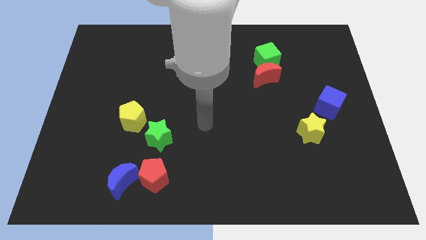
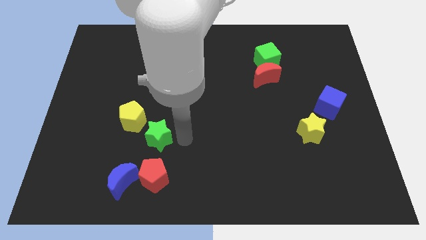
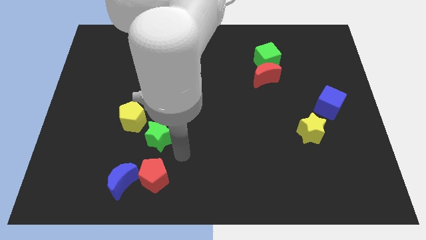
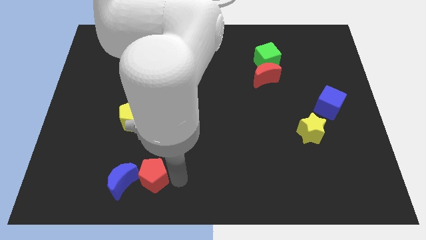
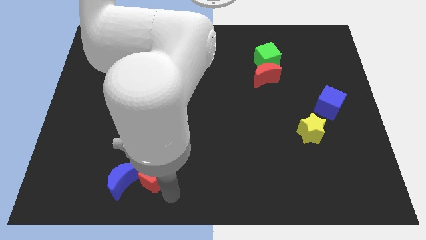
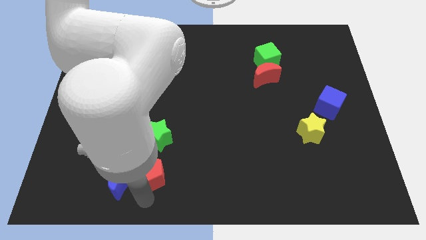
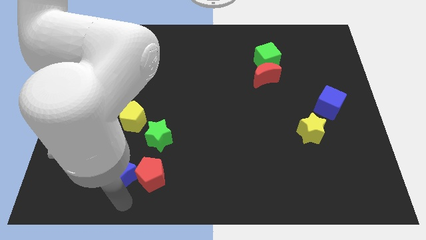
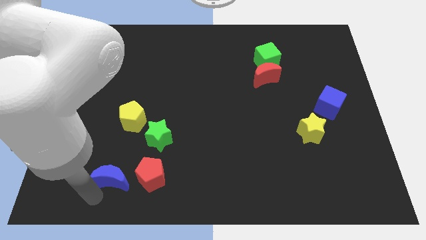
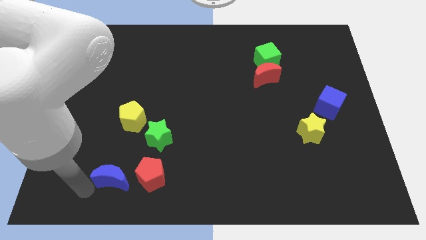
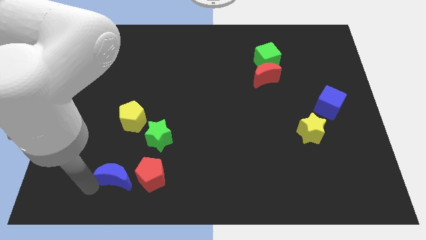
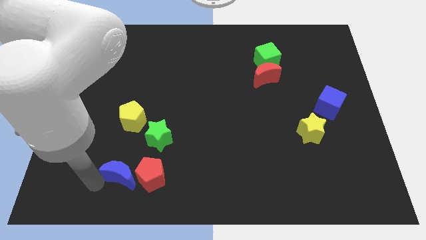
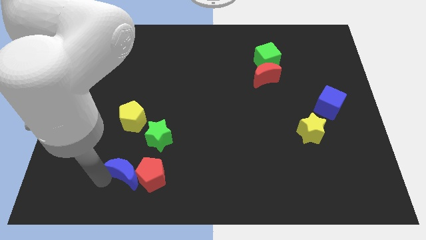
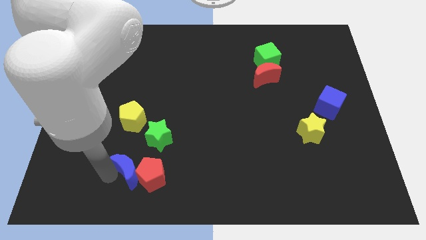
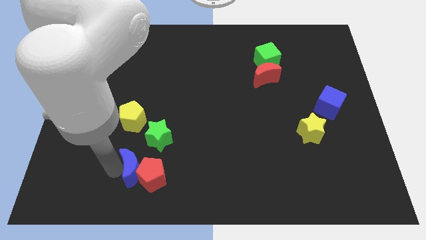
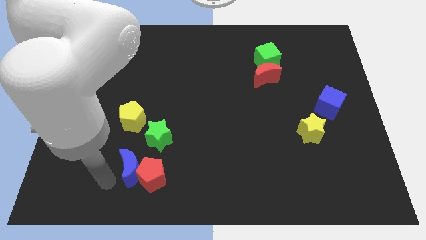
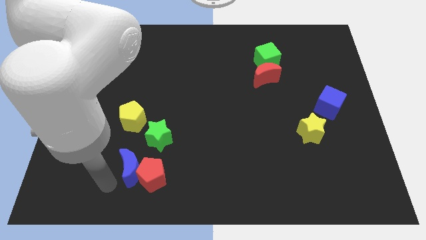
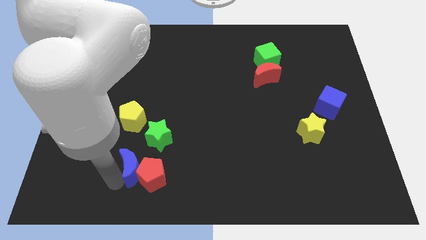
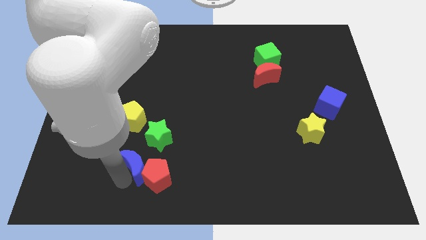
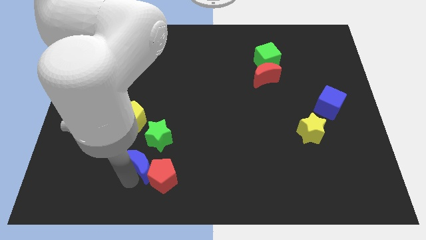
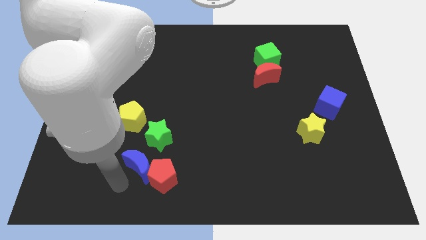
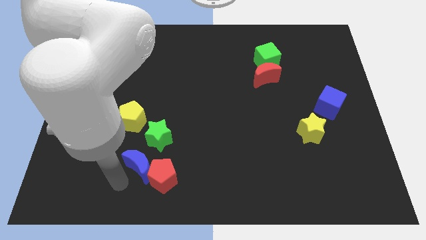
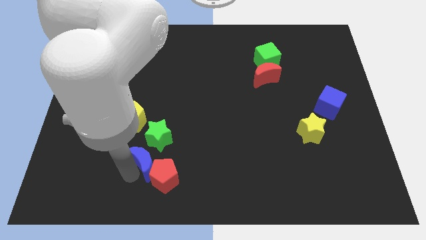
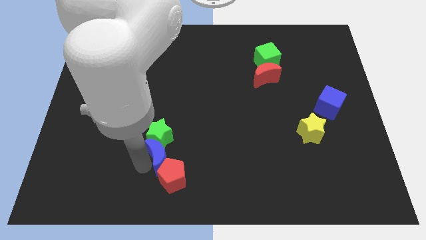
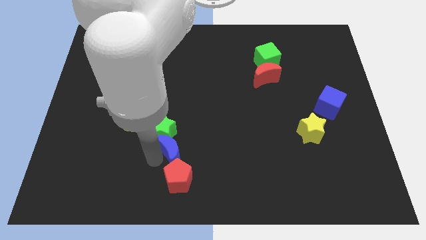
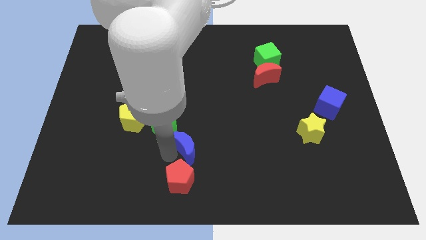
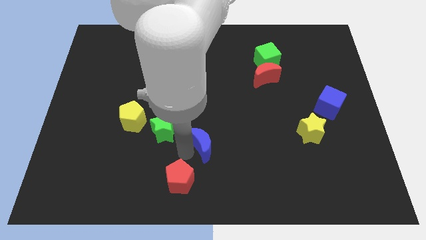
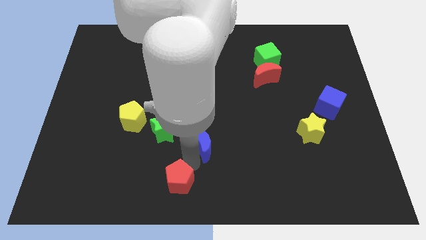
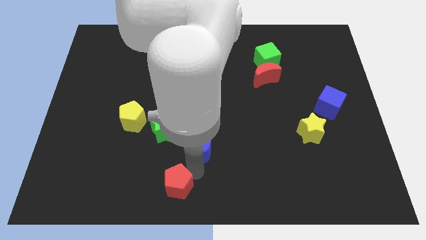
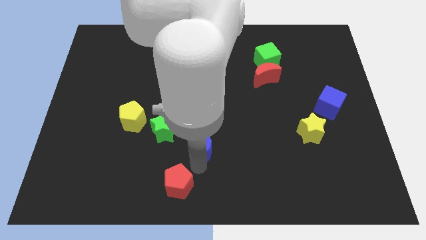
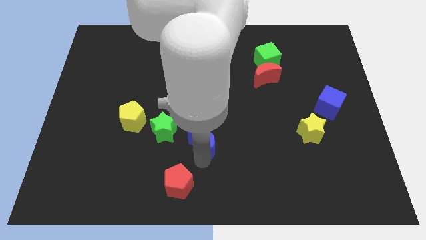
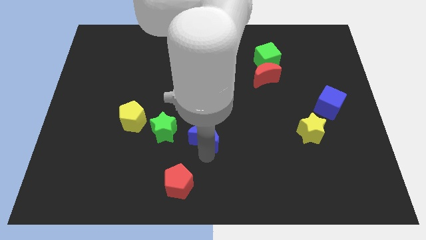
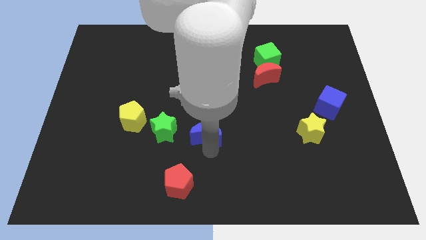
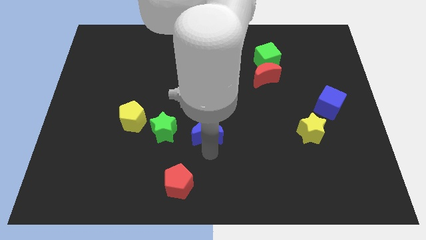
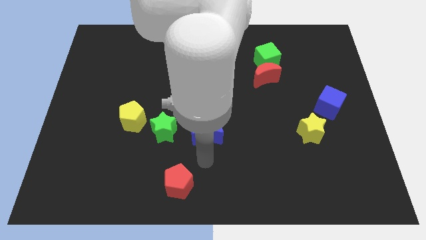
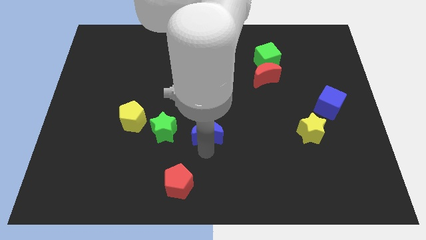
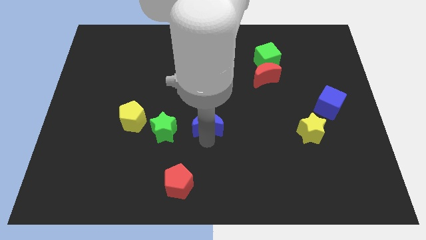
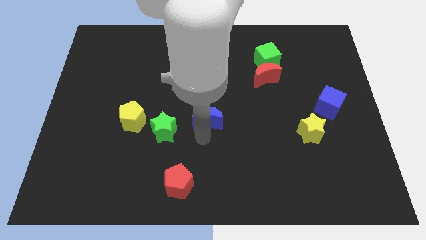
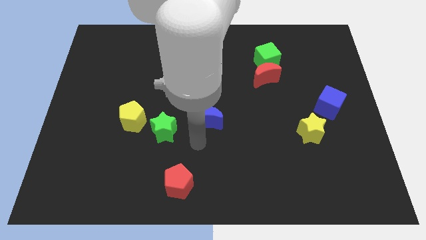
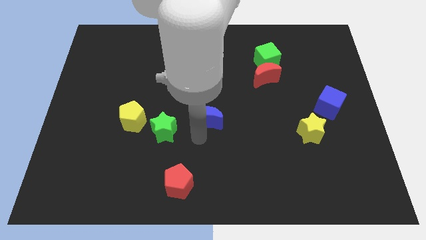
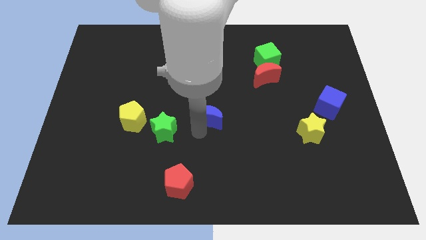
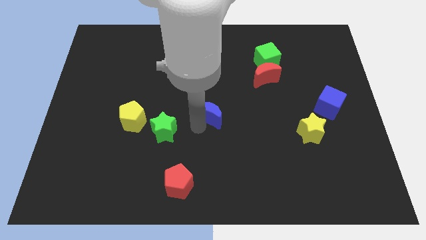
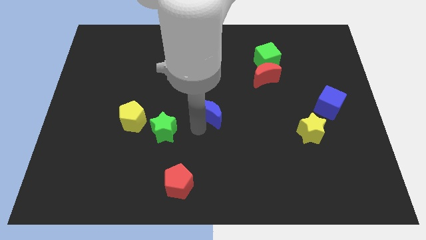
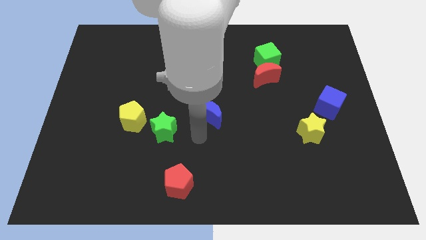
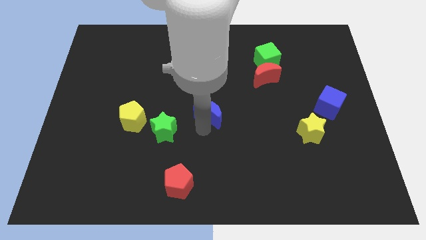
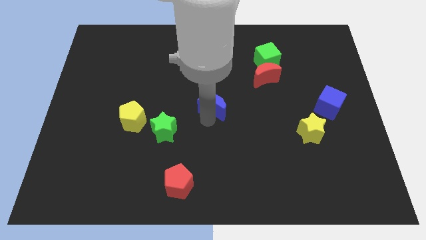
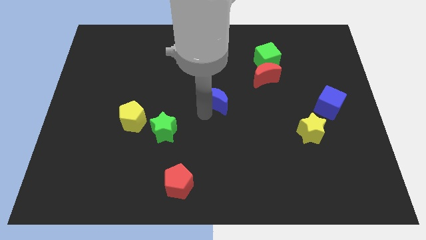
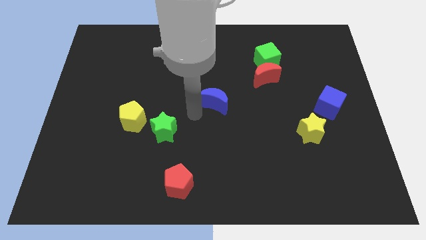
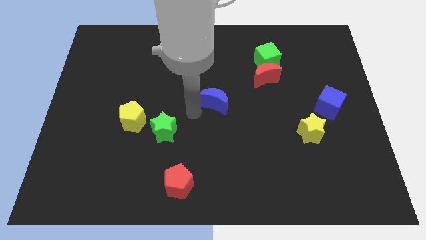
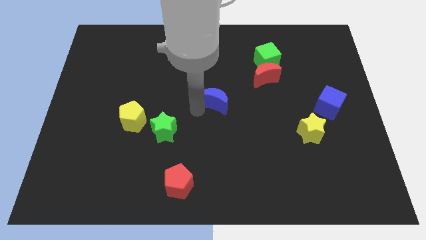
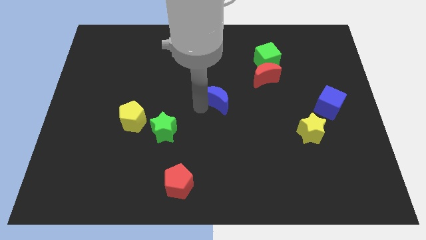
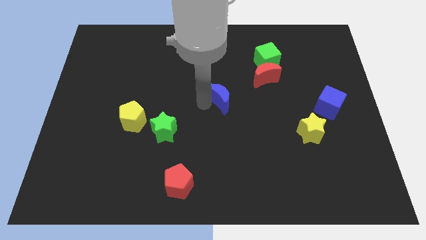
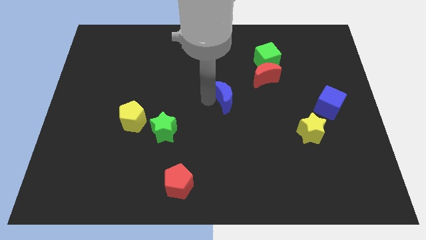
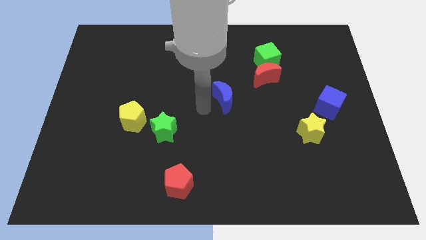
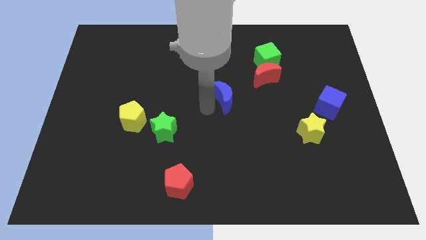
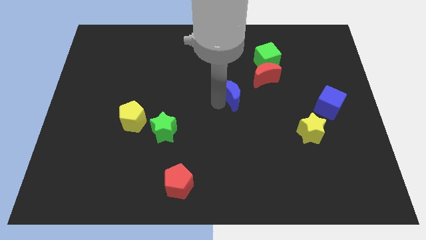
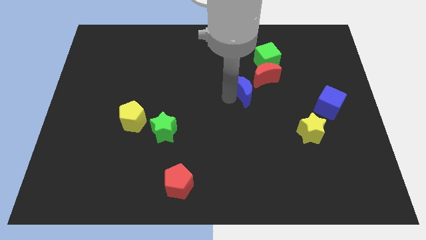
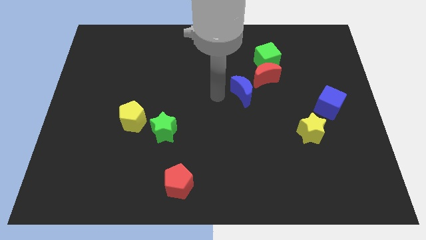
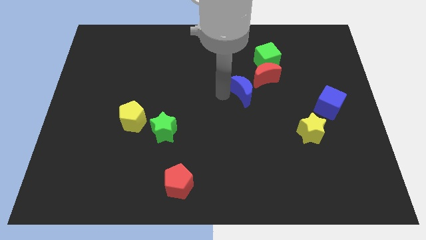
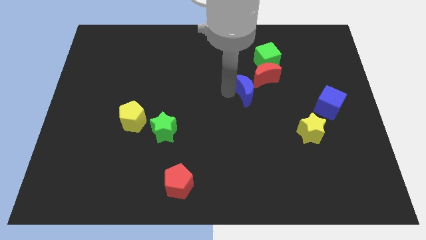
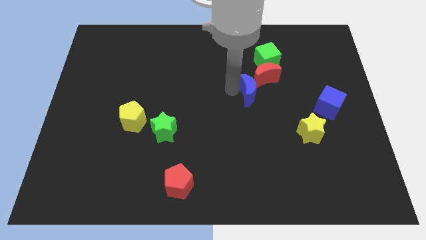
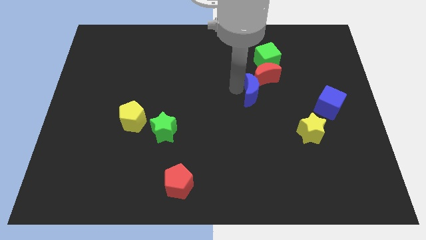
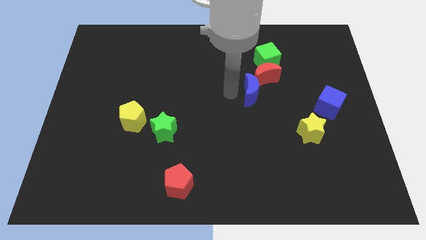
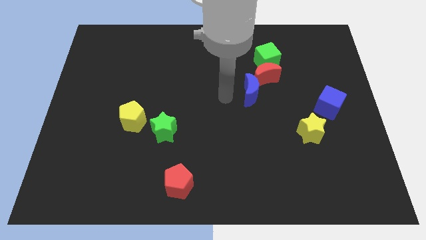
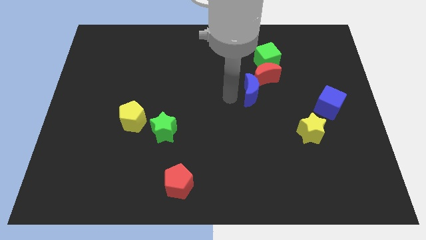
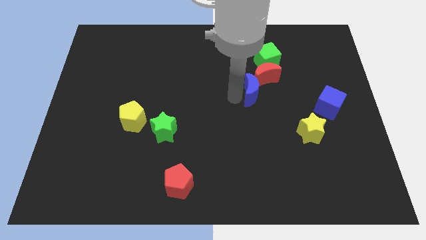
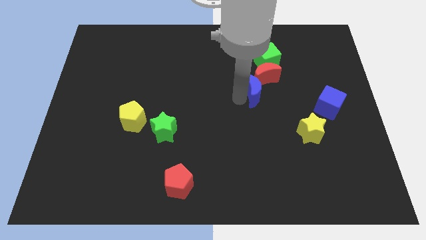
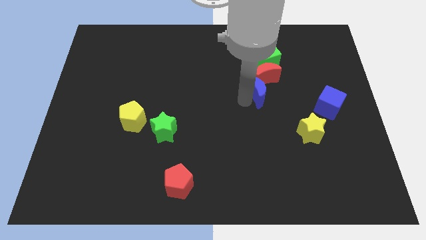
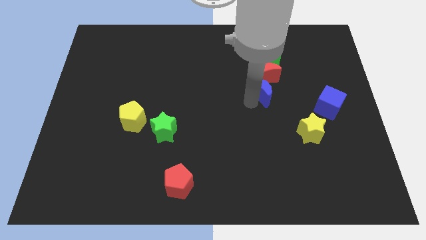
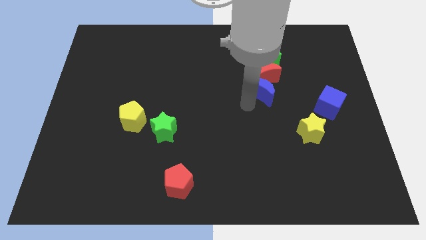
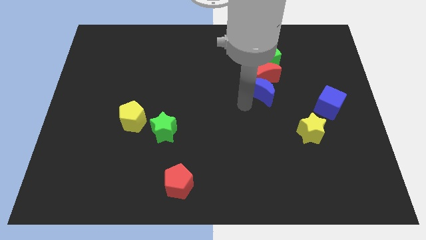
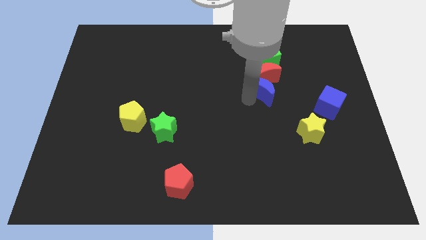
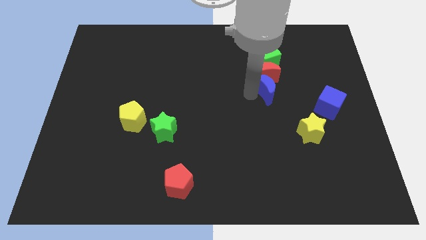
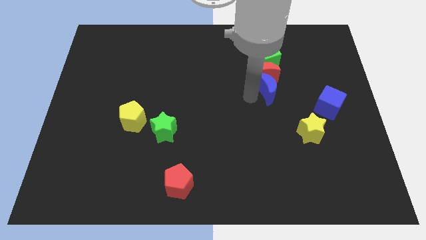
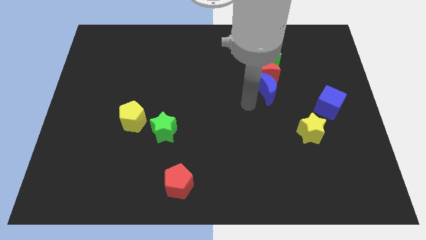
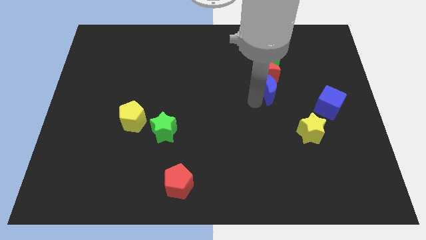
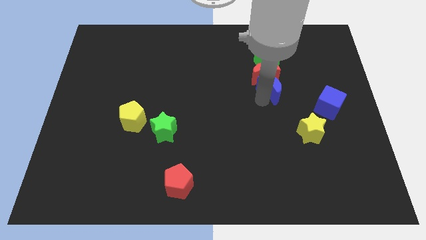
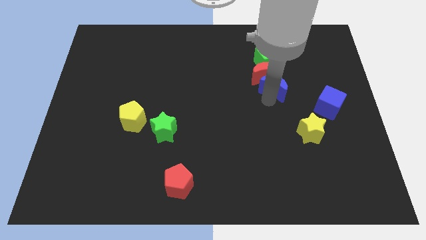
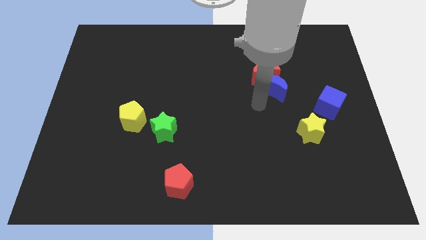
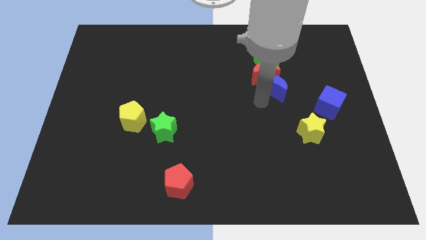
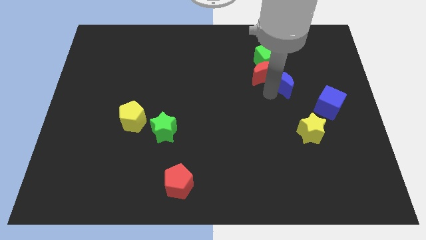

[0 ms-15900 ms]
push the blue moon to the bottom right side of the green cube
